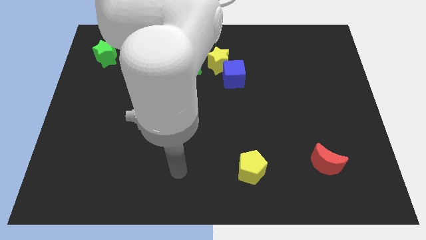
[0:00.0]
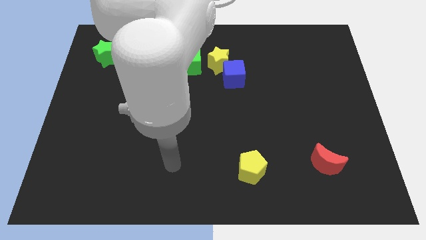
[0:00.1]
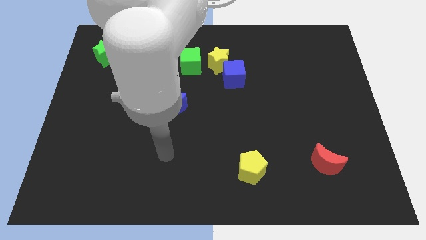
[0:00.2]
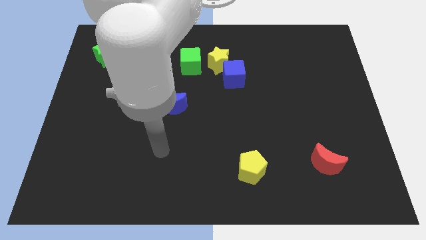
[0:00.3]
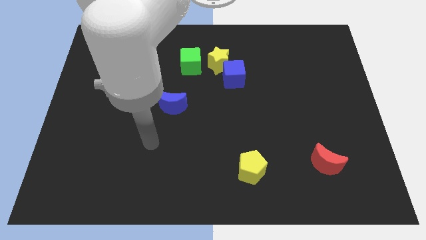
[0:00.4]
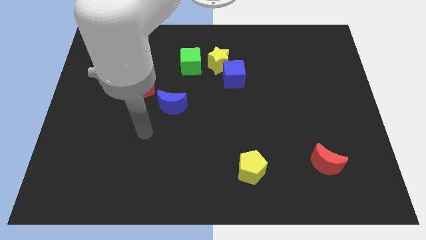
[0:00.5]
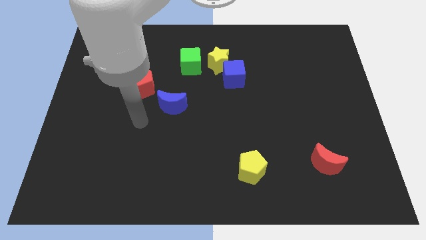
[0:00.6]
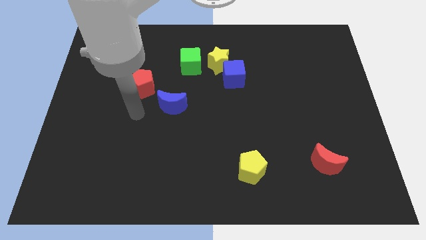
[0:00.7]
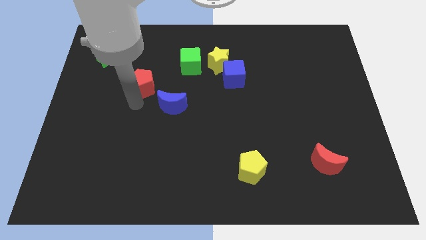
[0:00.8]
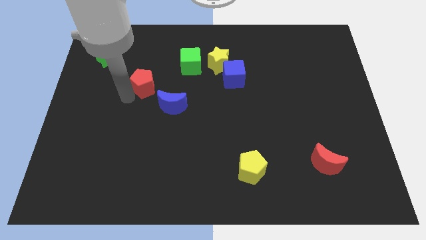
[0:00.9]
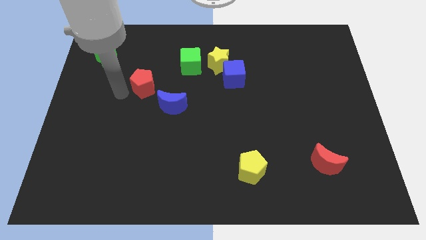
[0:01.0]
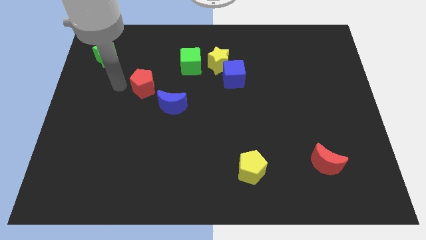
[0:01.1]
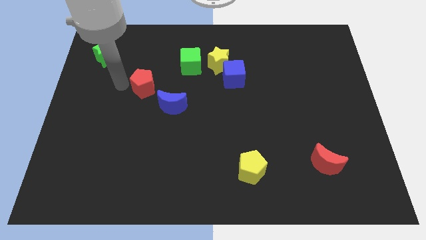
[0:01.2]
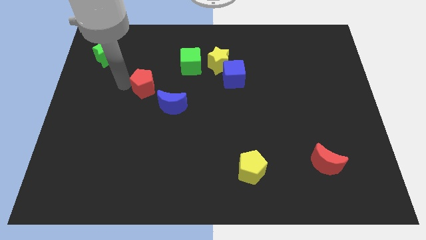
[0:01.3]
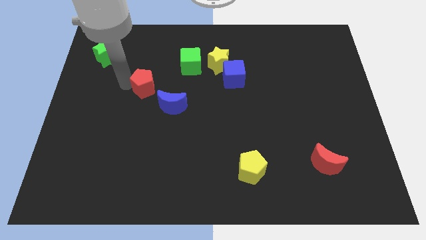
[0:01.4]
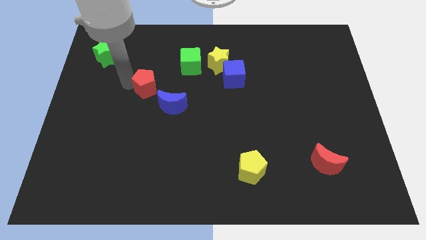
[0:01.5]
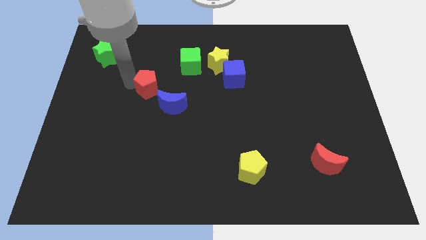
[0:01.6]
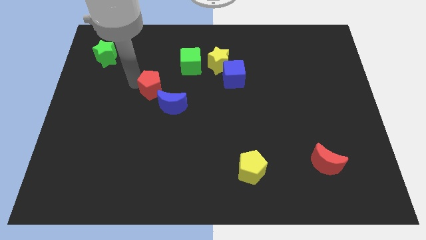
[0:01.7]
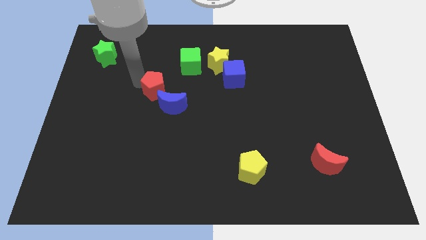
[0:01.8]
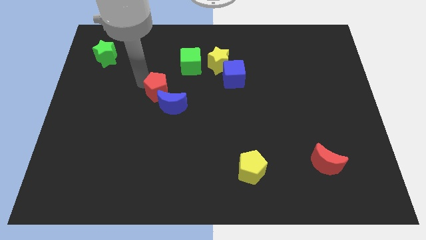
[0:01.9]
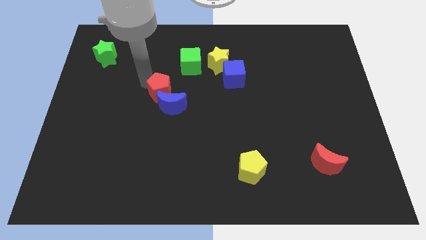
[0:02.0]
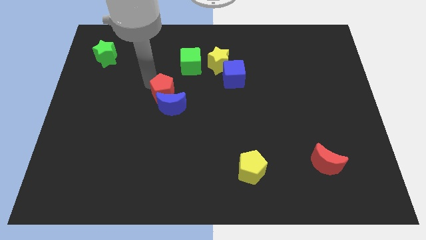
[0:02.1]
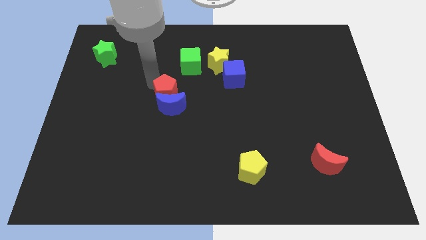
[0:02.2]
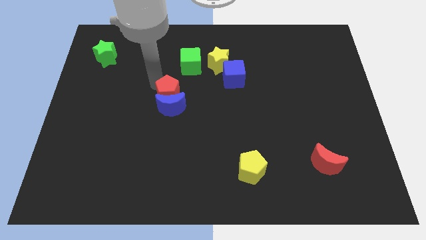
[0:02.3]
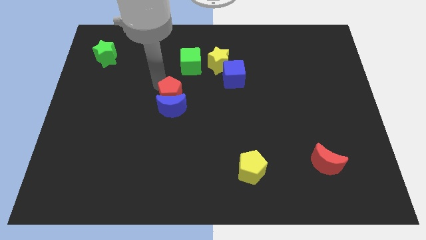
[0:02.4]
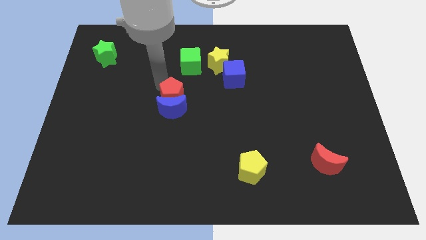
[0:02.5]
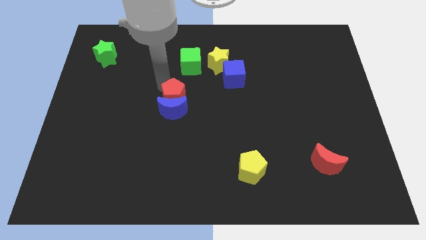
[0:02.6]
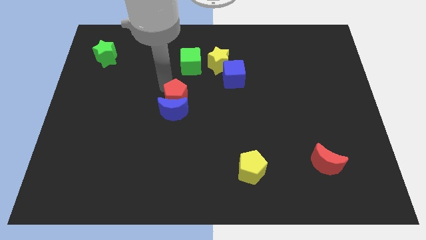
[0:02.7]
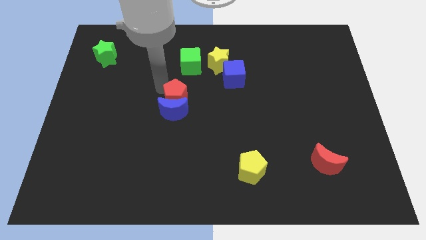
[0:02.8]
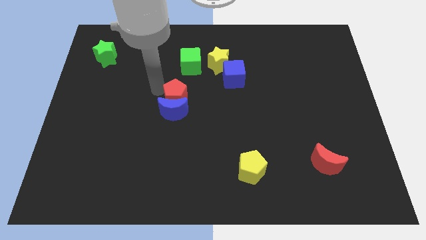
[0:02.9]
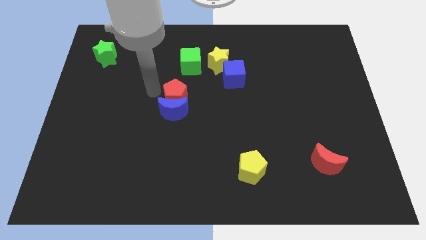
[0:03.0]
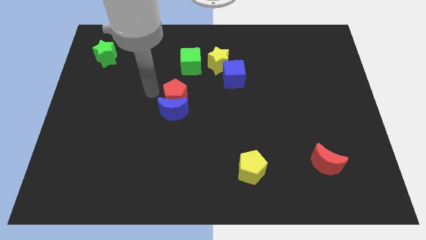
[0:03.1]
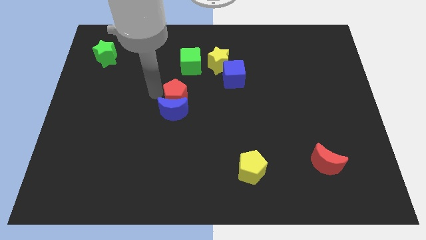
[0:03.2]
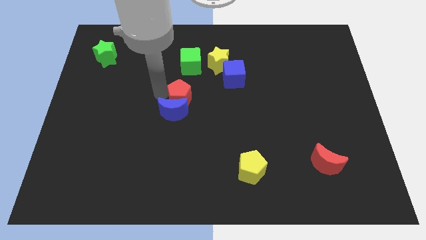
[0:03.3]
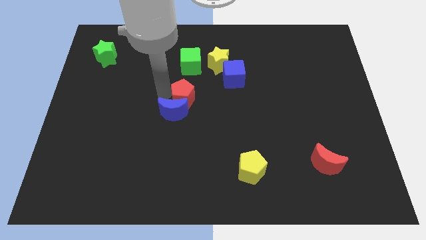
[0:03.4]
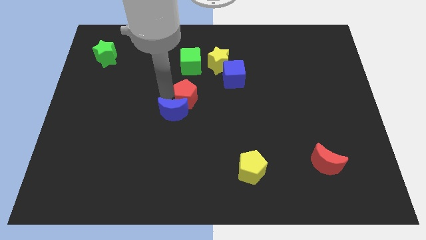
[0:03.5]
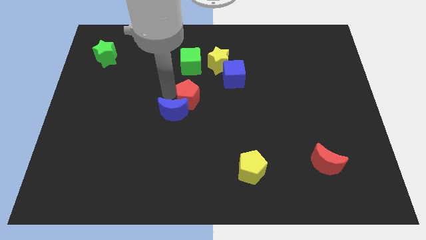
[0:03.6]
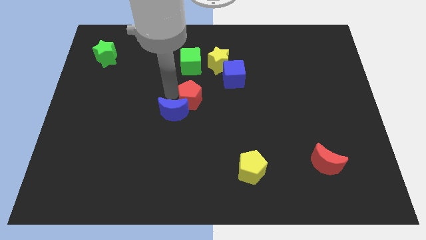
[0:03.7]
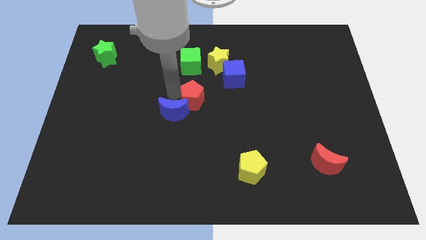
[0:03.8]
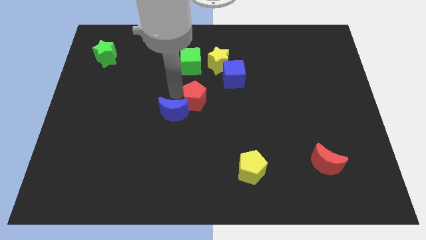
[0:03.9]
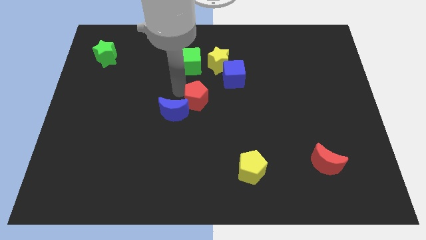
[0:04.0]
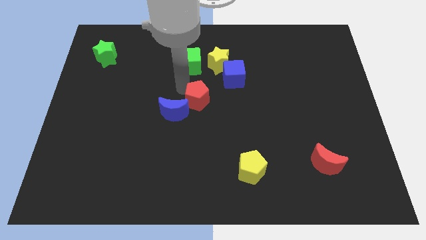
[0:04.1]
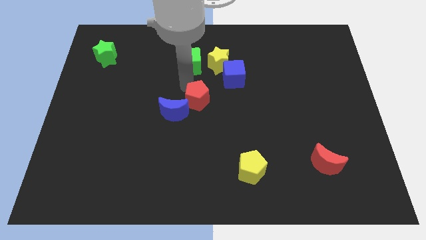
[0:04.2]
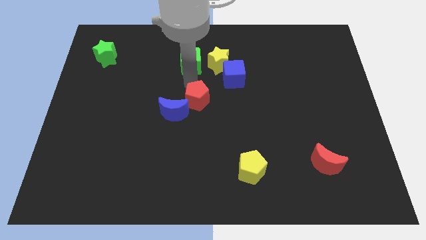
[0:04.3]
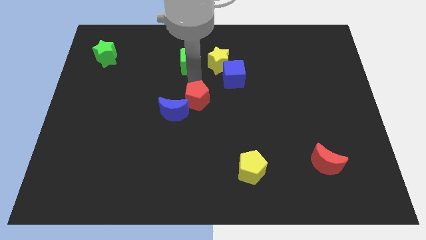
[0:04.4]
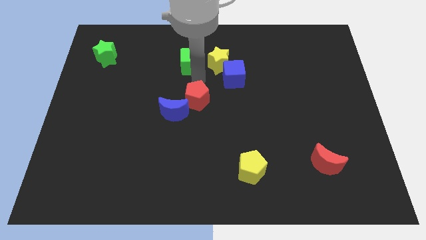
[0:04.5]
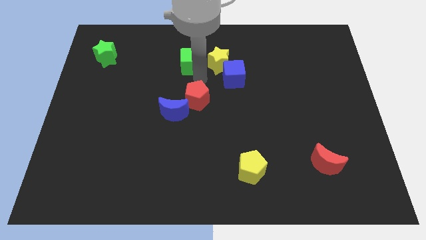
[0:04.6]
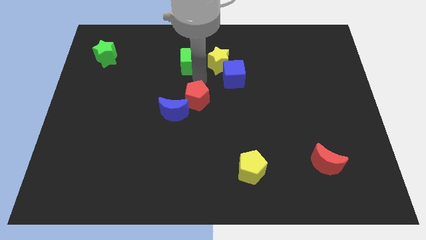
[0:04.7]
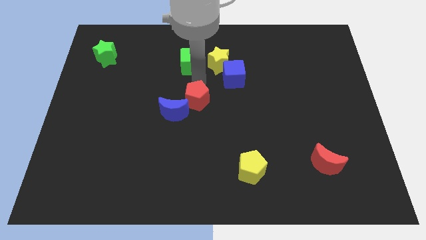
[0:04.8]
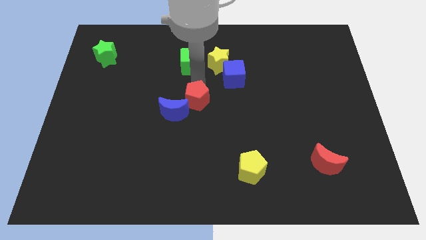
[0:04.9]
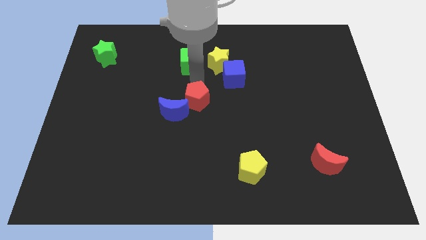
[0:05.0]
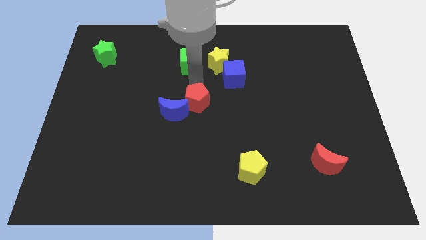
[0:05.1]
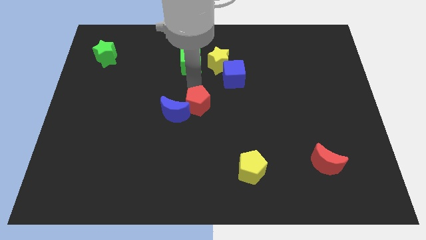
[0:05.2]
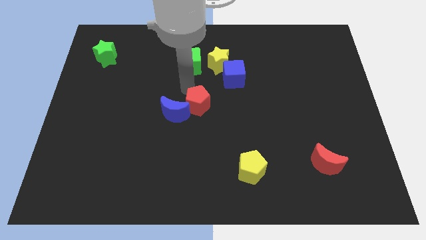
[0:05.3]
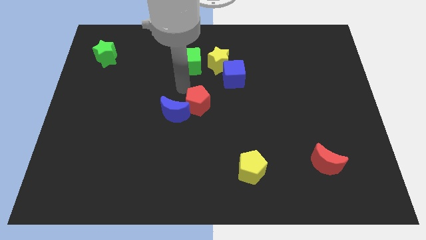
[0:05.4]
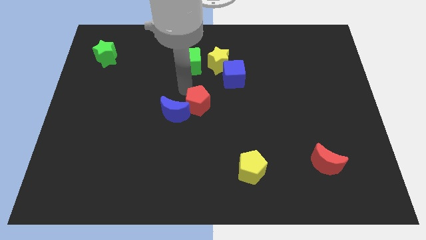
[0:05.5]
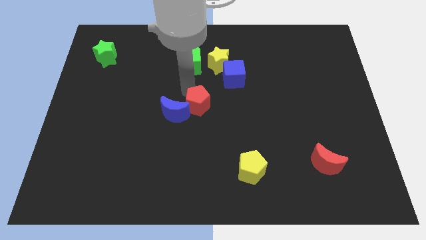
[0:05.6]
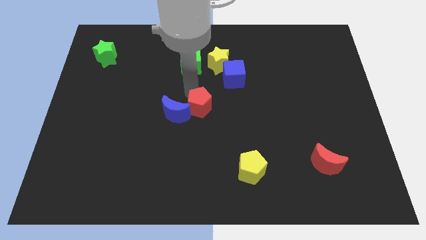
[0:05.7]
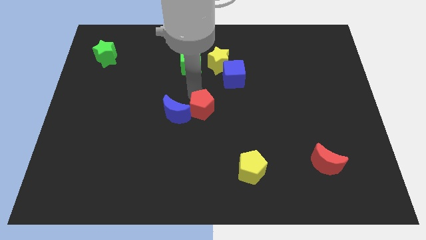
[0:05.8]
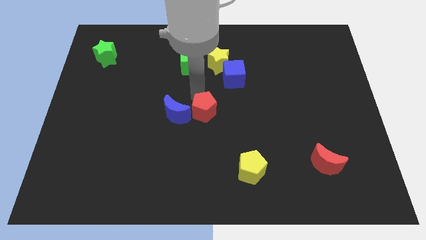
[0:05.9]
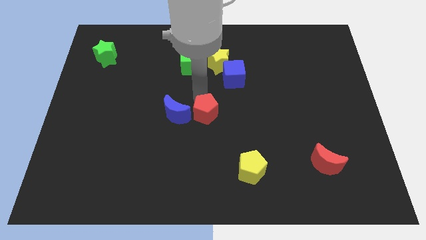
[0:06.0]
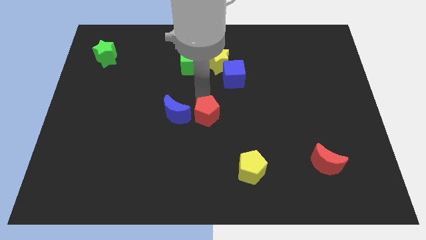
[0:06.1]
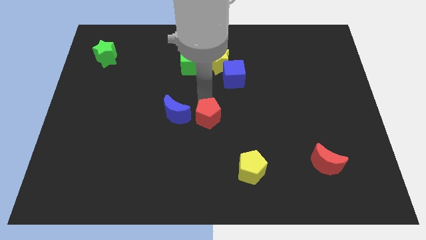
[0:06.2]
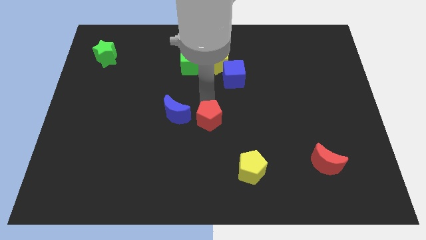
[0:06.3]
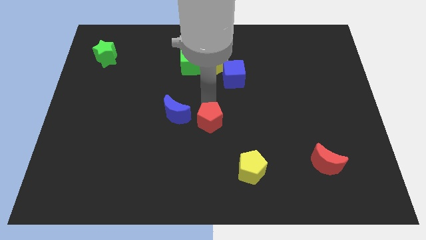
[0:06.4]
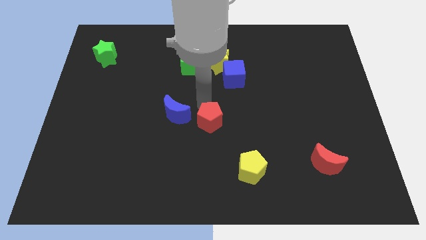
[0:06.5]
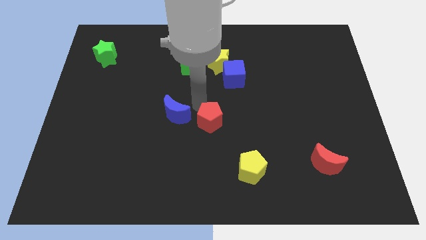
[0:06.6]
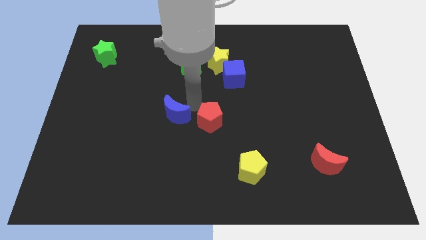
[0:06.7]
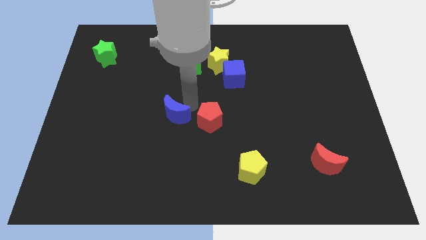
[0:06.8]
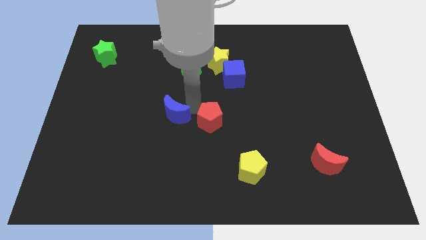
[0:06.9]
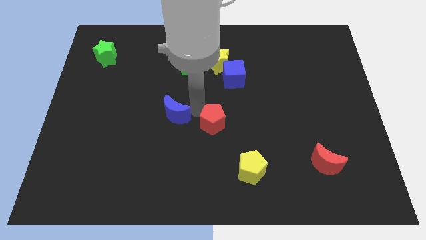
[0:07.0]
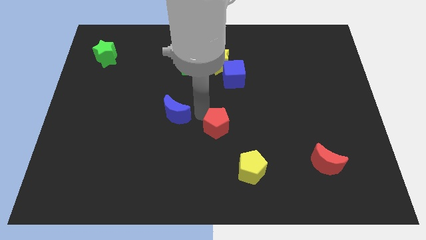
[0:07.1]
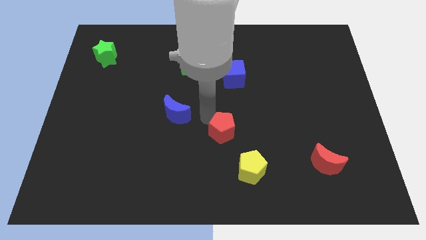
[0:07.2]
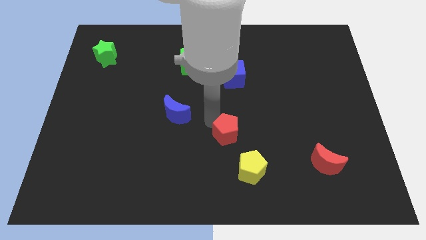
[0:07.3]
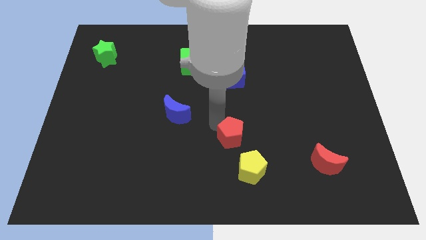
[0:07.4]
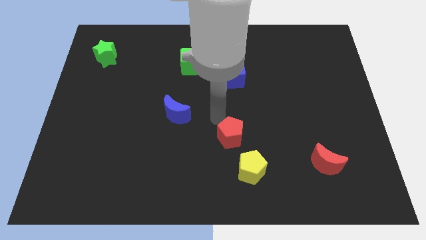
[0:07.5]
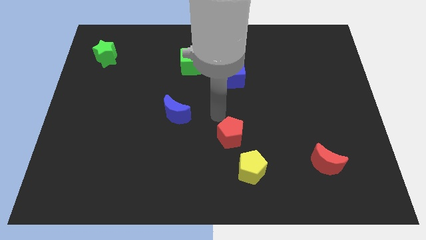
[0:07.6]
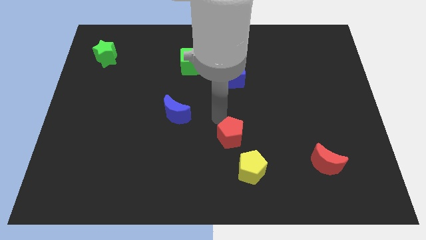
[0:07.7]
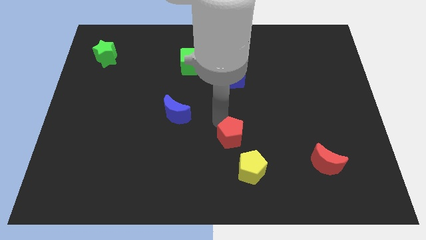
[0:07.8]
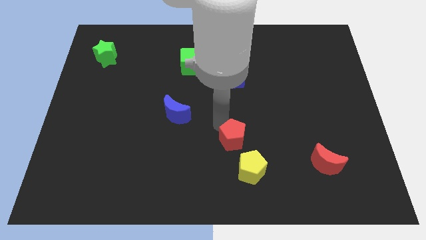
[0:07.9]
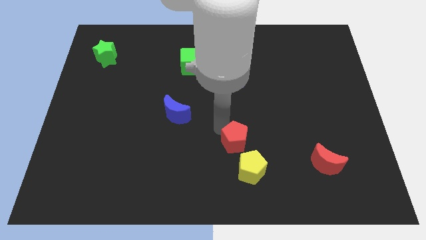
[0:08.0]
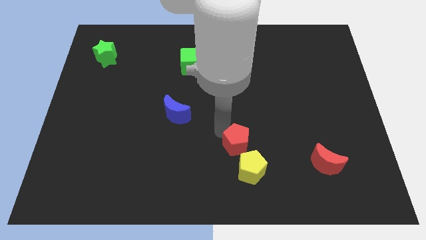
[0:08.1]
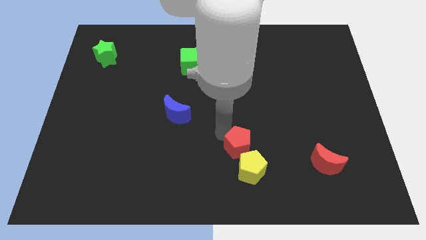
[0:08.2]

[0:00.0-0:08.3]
move the red pentagon close to the yellow pentagon
